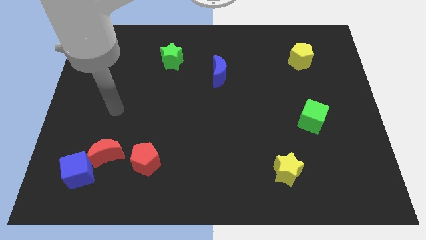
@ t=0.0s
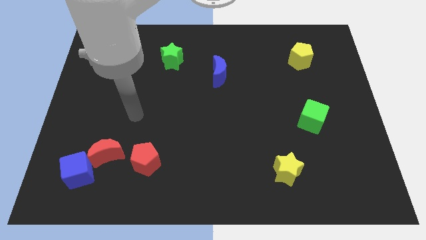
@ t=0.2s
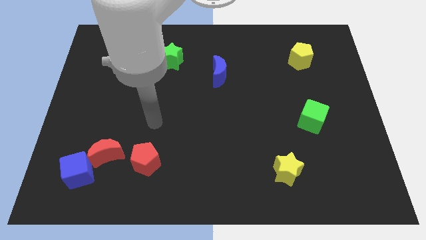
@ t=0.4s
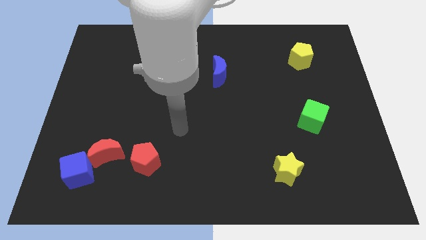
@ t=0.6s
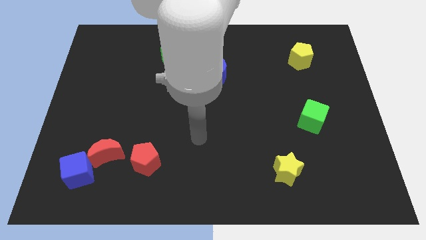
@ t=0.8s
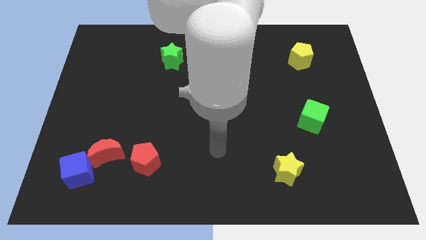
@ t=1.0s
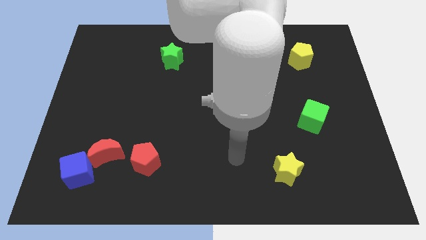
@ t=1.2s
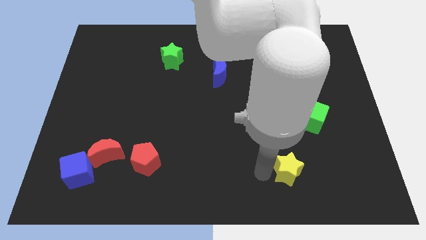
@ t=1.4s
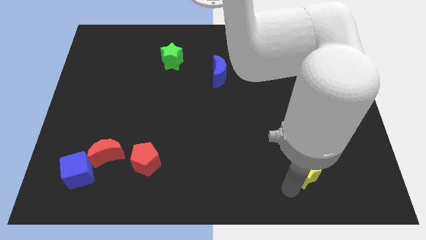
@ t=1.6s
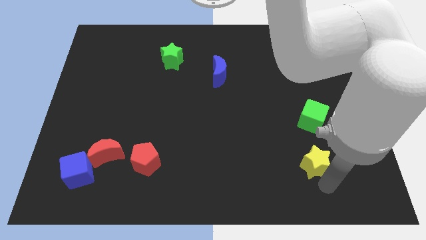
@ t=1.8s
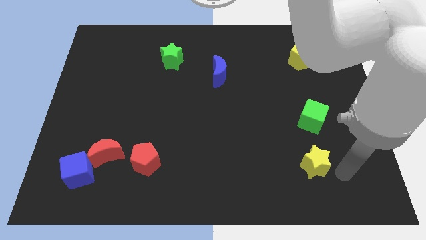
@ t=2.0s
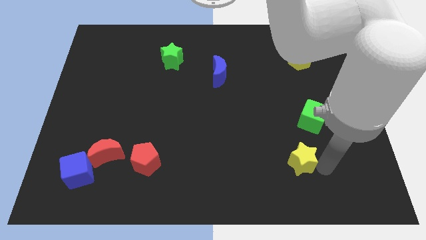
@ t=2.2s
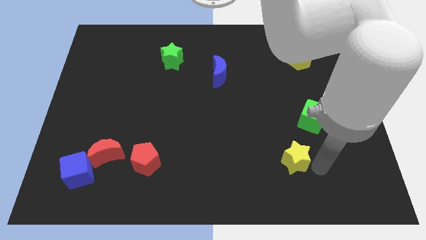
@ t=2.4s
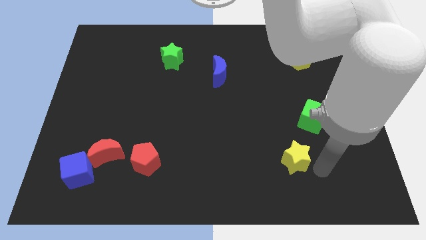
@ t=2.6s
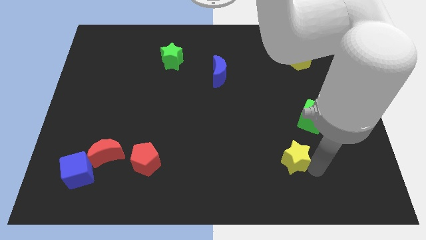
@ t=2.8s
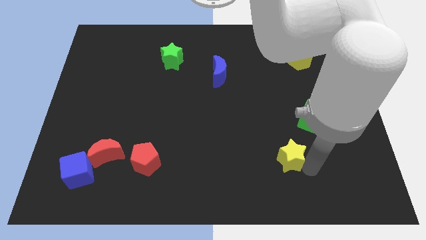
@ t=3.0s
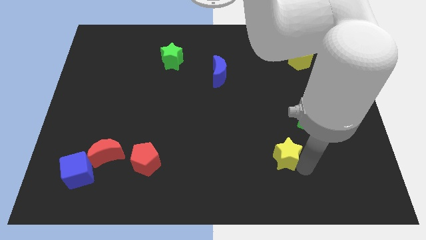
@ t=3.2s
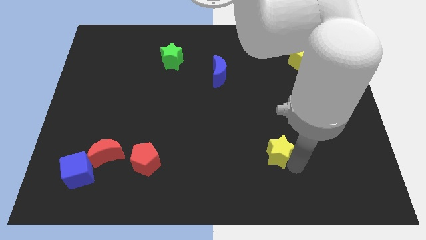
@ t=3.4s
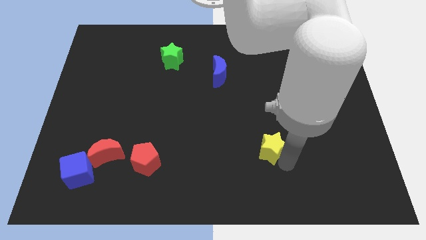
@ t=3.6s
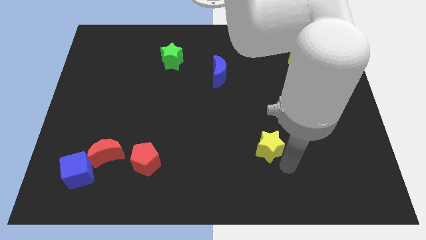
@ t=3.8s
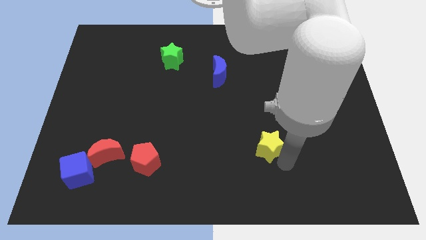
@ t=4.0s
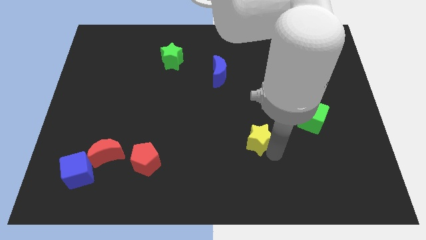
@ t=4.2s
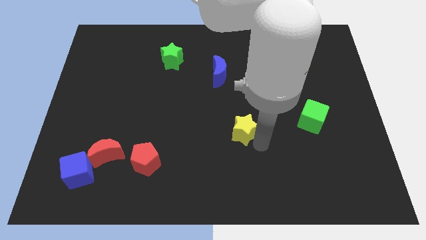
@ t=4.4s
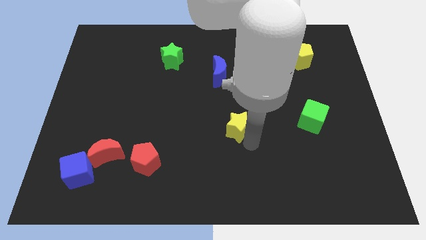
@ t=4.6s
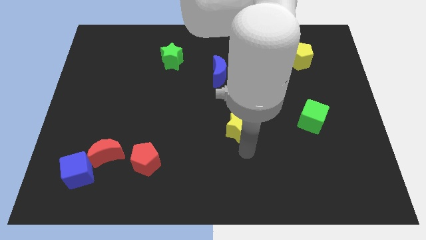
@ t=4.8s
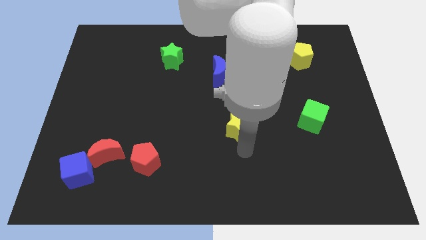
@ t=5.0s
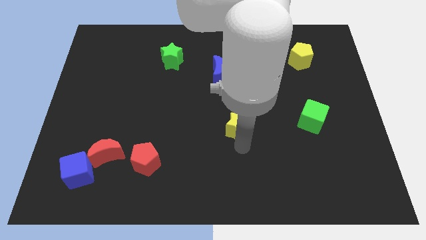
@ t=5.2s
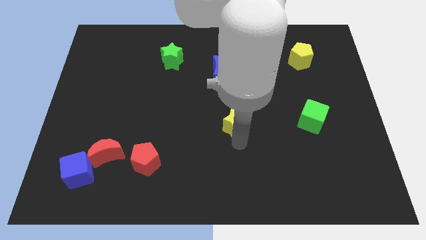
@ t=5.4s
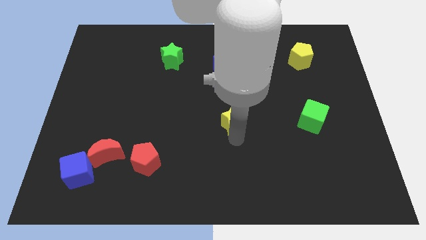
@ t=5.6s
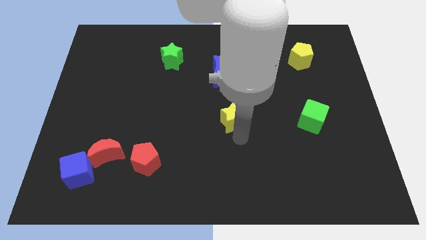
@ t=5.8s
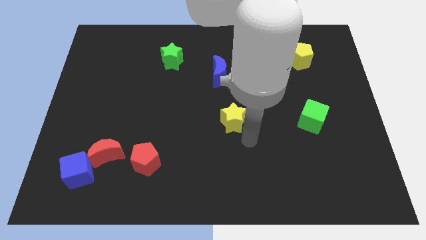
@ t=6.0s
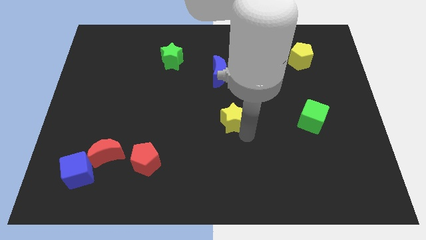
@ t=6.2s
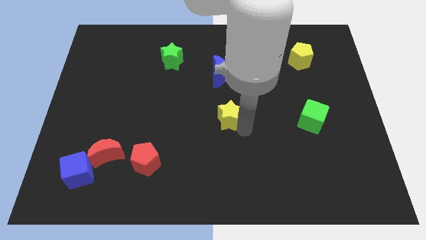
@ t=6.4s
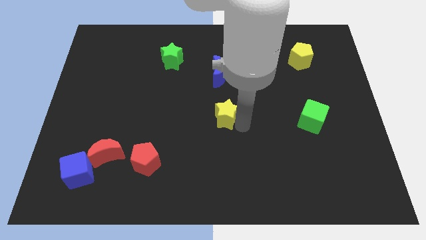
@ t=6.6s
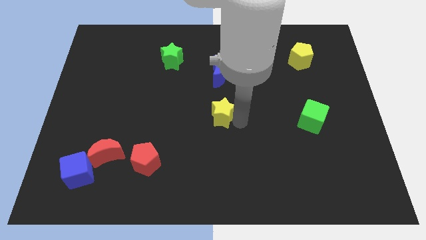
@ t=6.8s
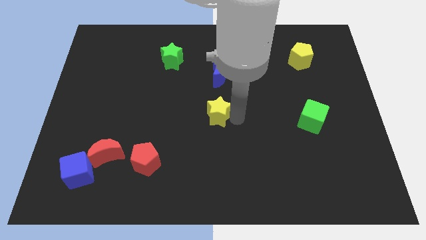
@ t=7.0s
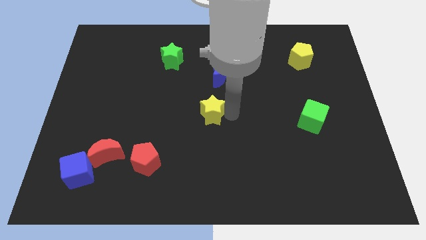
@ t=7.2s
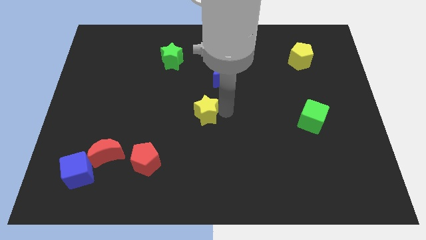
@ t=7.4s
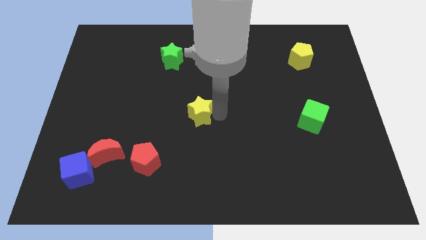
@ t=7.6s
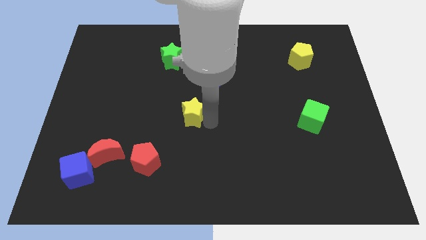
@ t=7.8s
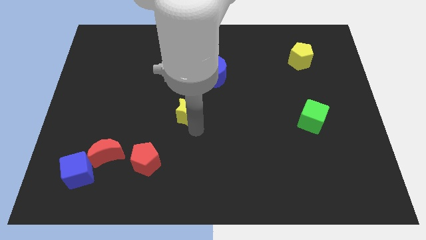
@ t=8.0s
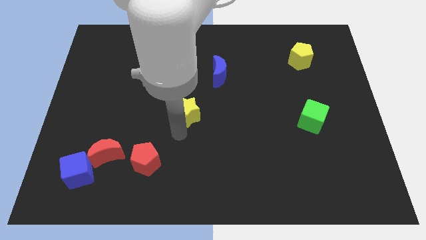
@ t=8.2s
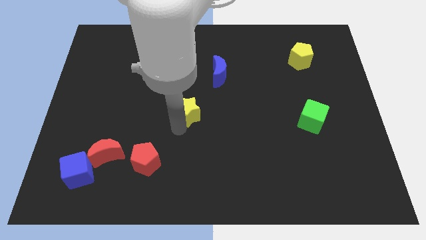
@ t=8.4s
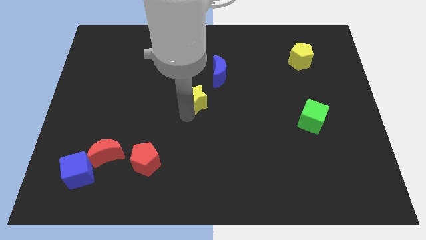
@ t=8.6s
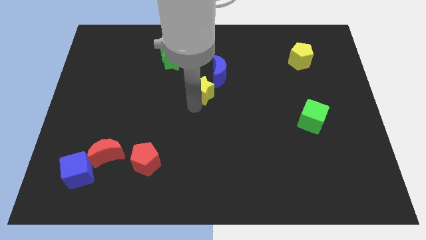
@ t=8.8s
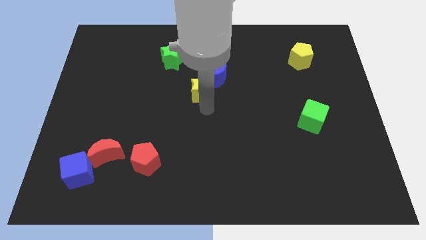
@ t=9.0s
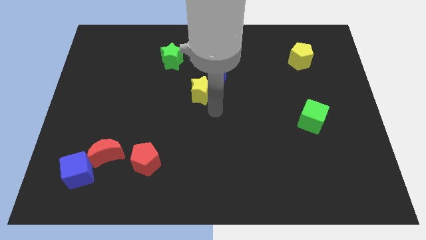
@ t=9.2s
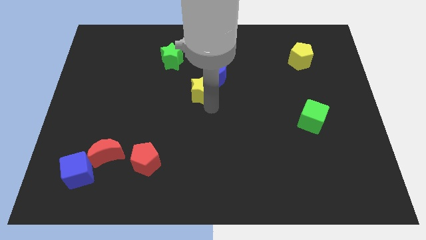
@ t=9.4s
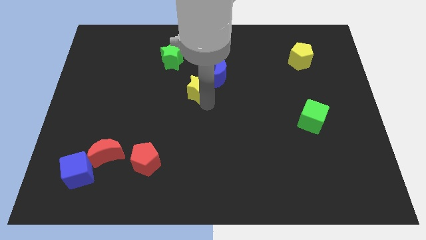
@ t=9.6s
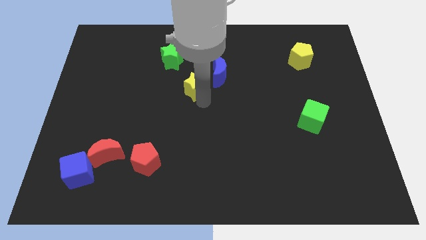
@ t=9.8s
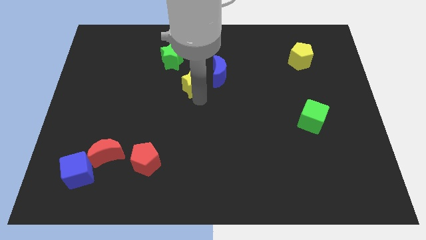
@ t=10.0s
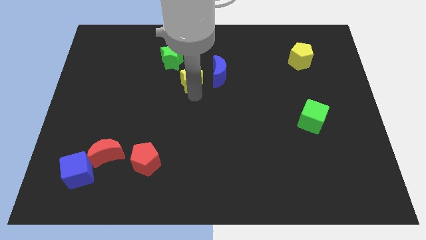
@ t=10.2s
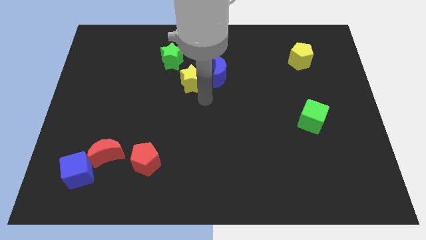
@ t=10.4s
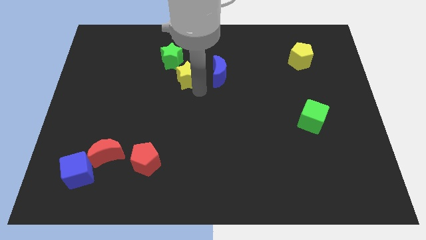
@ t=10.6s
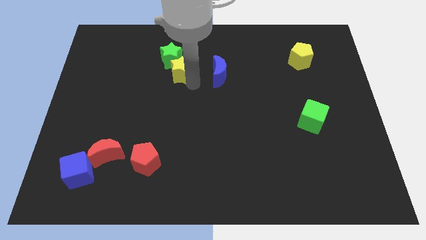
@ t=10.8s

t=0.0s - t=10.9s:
push the yellow star to the green star

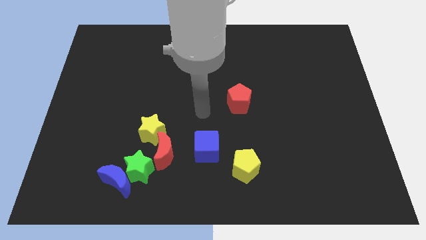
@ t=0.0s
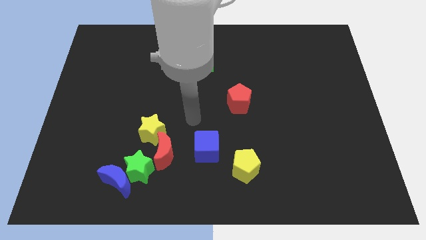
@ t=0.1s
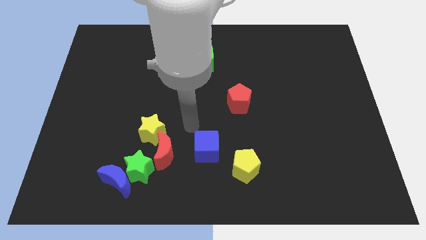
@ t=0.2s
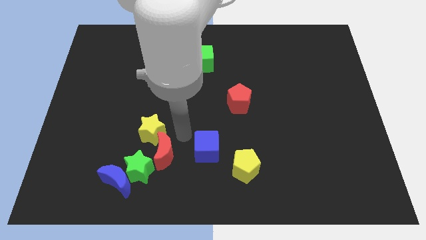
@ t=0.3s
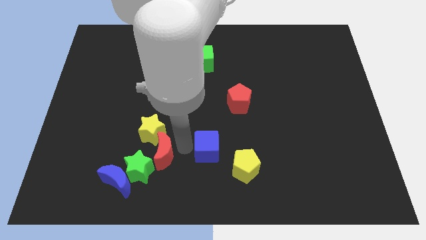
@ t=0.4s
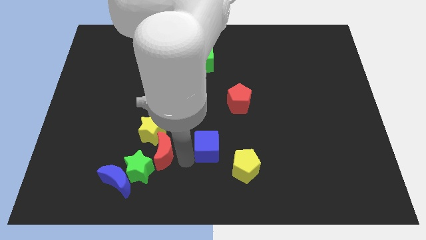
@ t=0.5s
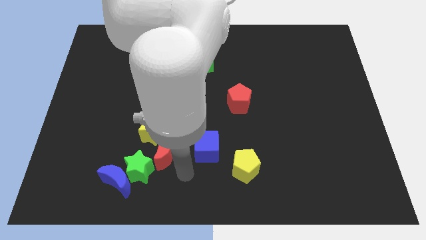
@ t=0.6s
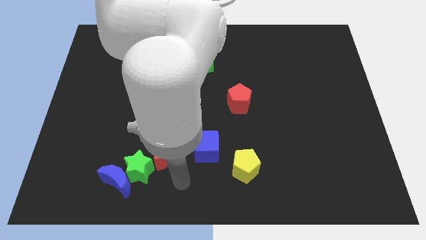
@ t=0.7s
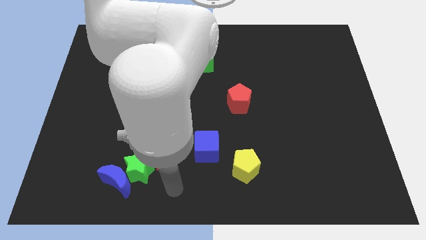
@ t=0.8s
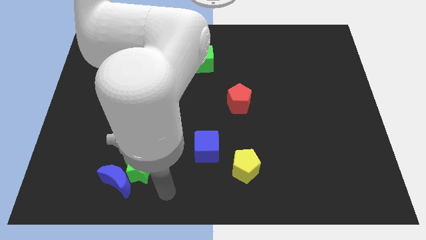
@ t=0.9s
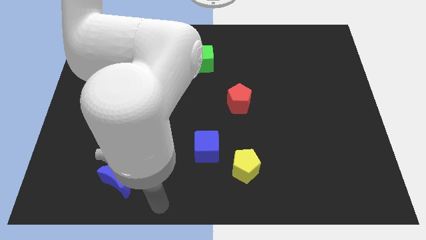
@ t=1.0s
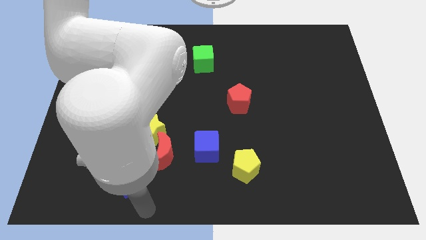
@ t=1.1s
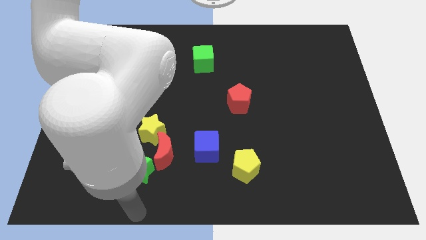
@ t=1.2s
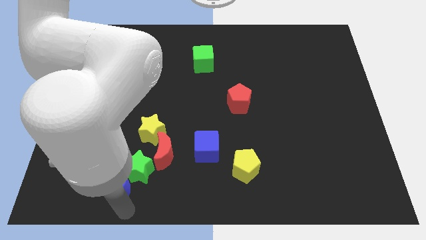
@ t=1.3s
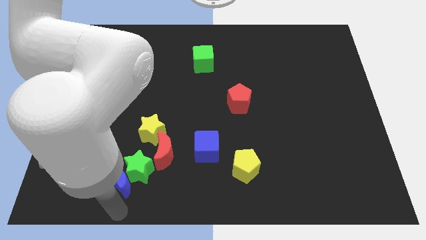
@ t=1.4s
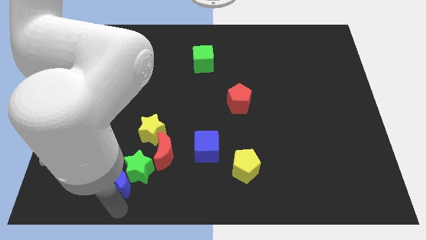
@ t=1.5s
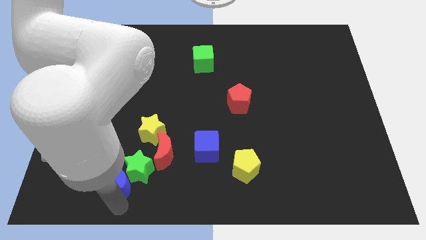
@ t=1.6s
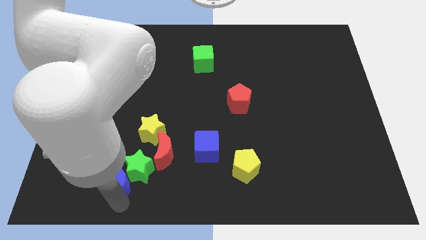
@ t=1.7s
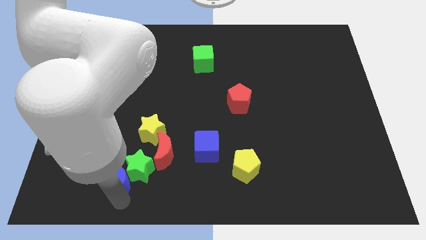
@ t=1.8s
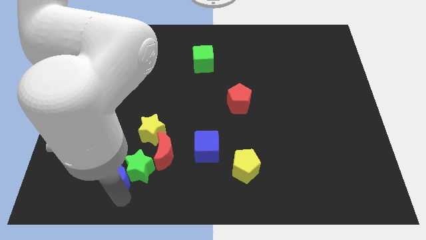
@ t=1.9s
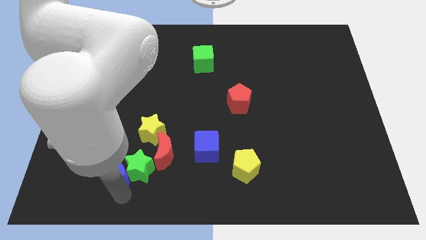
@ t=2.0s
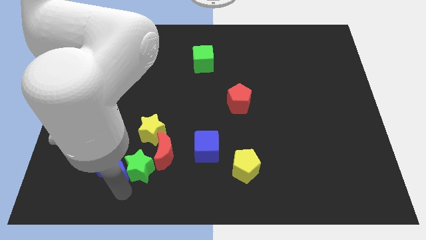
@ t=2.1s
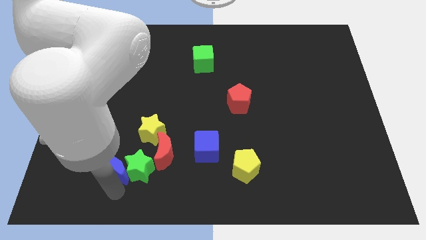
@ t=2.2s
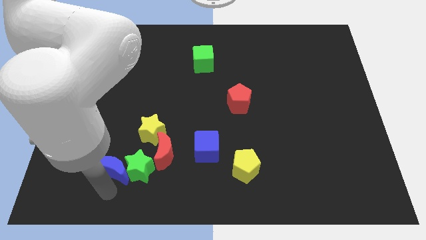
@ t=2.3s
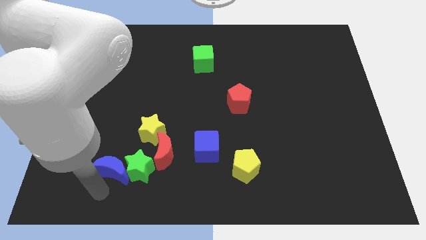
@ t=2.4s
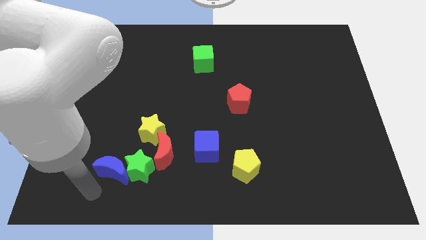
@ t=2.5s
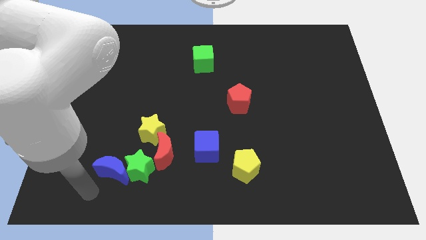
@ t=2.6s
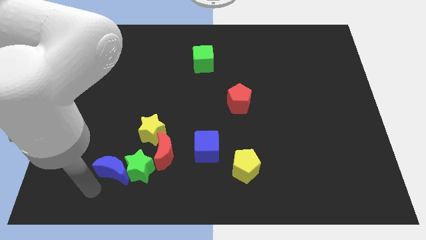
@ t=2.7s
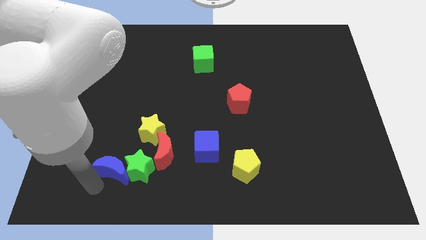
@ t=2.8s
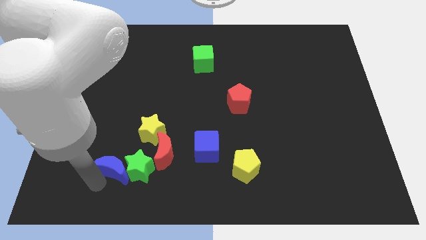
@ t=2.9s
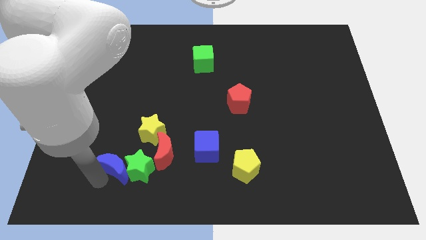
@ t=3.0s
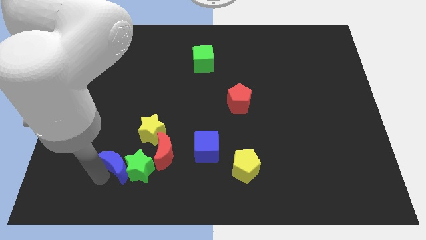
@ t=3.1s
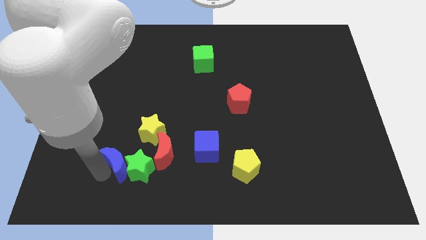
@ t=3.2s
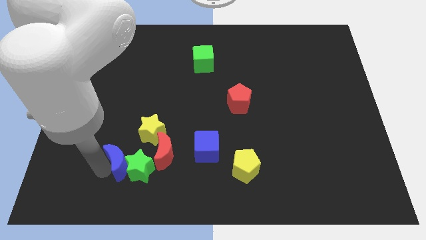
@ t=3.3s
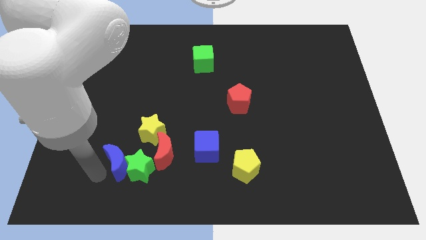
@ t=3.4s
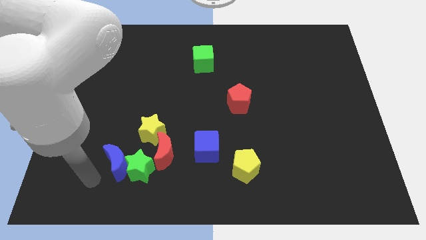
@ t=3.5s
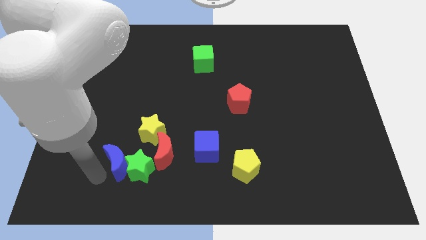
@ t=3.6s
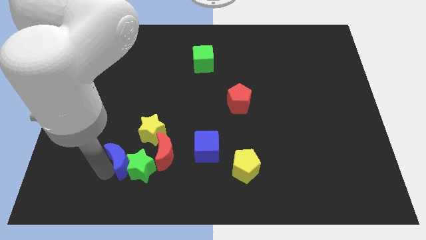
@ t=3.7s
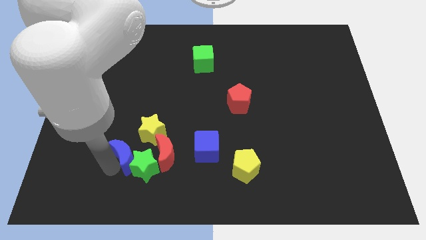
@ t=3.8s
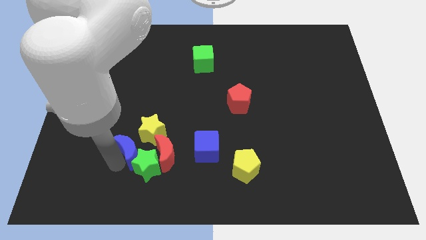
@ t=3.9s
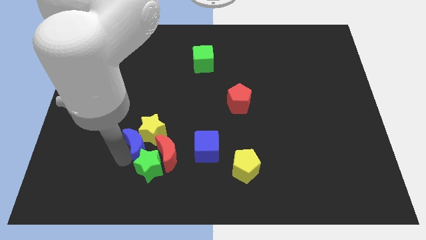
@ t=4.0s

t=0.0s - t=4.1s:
put the blue moon next to the yellow star
